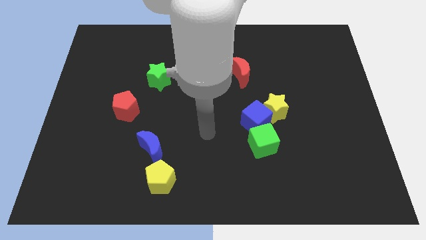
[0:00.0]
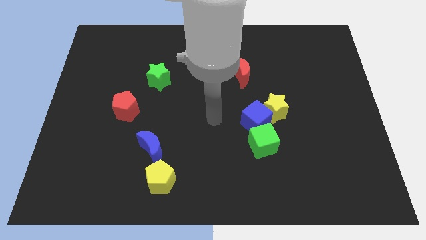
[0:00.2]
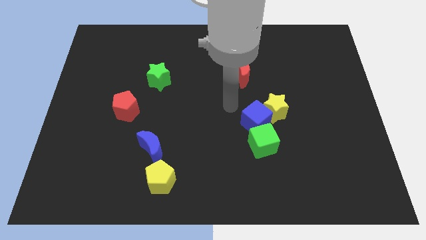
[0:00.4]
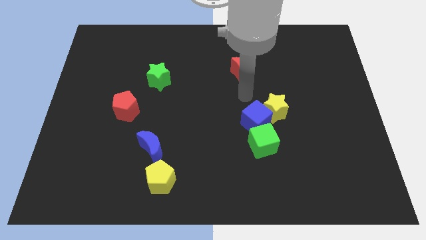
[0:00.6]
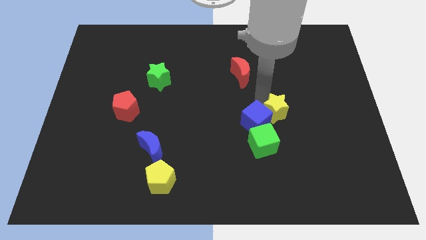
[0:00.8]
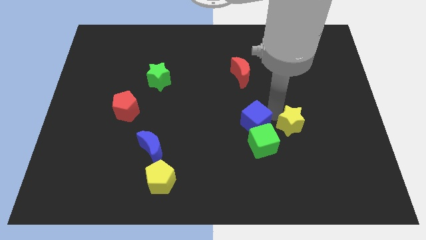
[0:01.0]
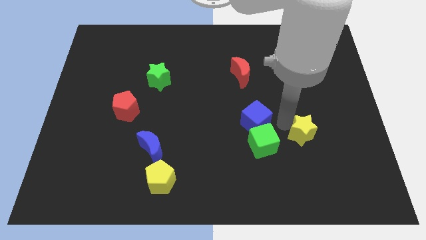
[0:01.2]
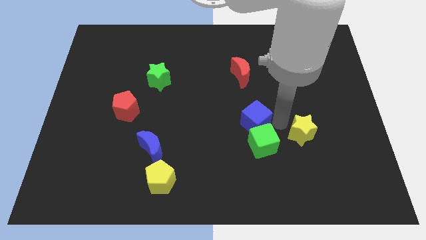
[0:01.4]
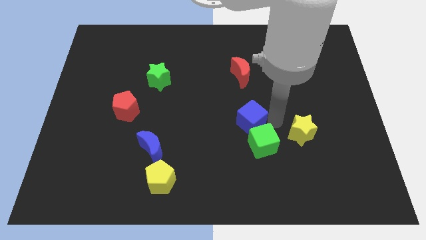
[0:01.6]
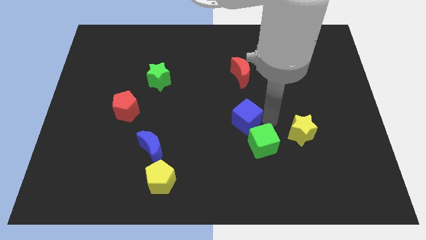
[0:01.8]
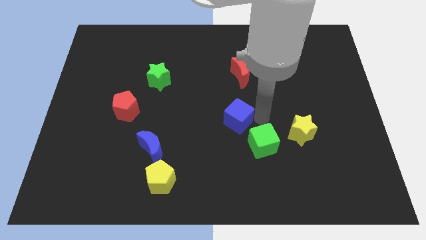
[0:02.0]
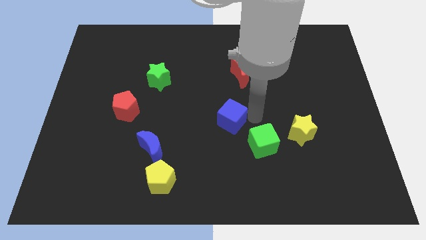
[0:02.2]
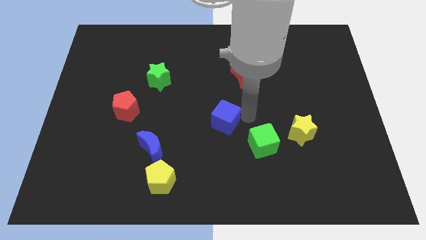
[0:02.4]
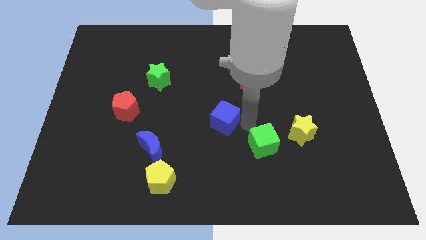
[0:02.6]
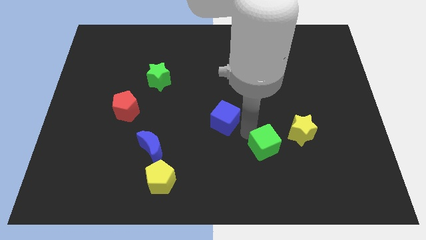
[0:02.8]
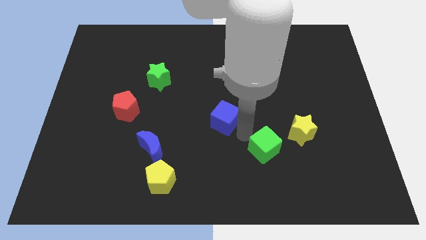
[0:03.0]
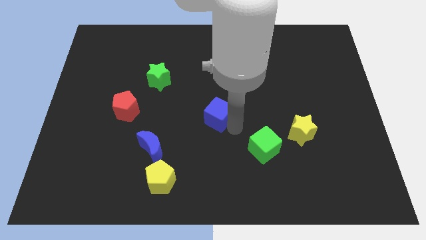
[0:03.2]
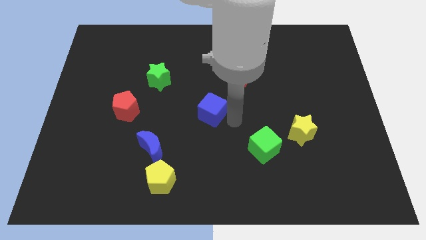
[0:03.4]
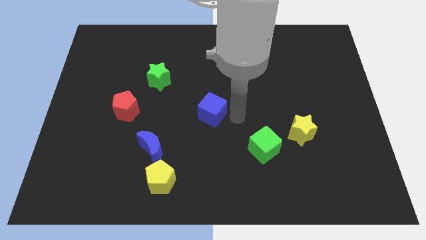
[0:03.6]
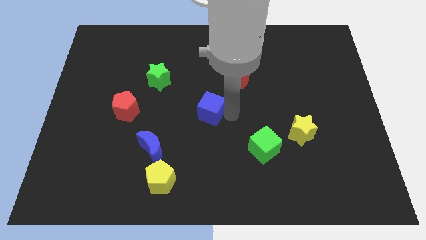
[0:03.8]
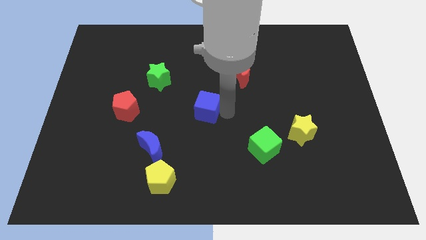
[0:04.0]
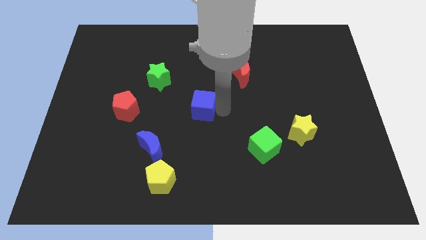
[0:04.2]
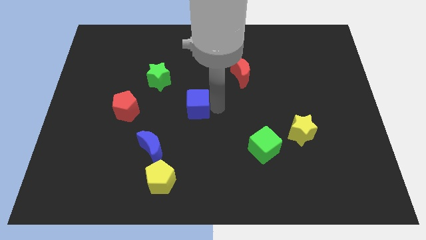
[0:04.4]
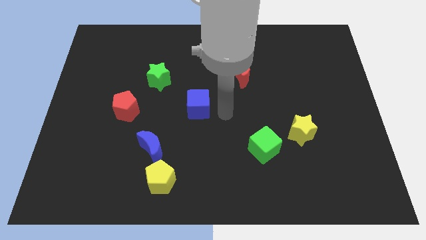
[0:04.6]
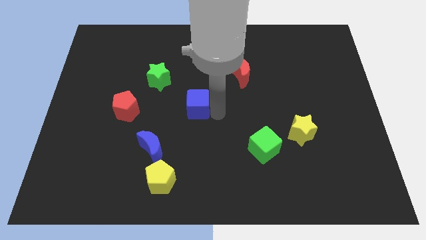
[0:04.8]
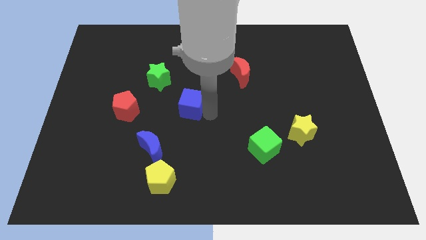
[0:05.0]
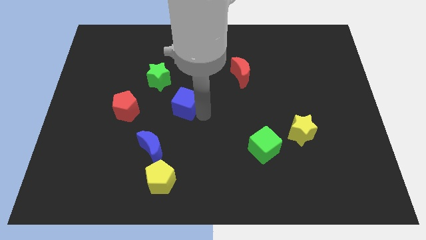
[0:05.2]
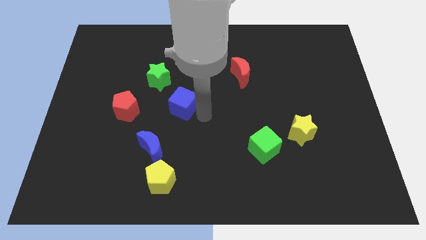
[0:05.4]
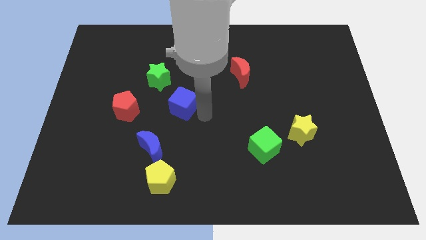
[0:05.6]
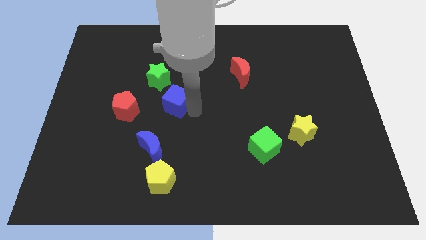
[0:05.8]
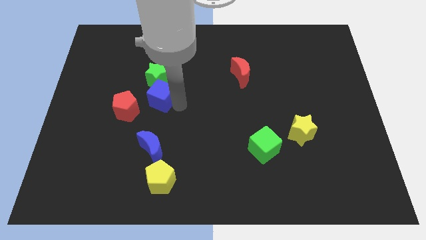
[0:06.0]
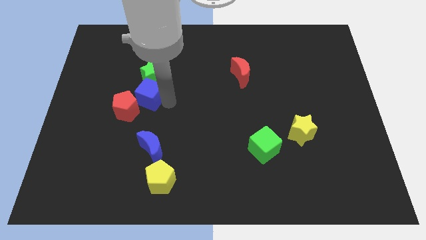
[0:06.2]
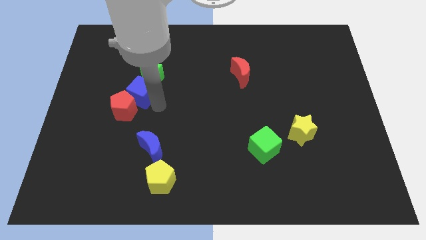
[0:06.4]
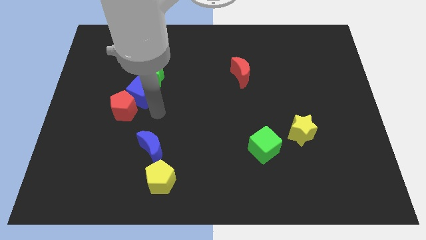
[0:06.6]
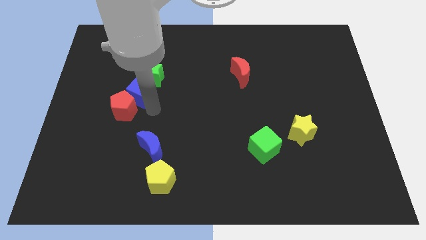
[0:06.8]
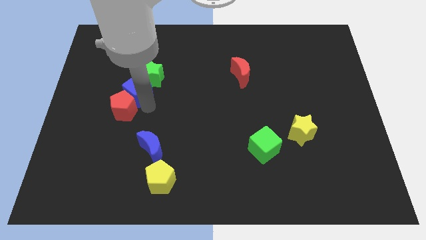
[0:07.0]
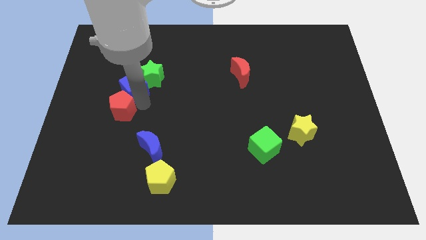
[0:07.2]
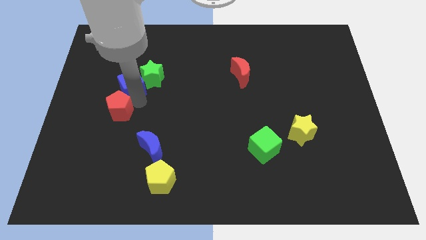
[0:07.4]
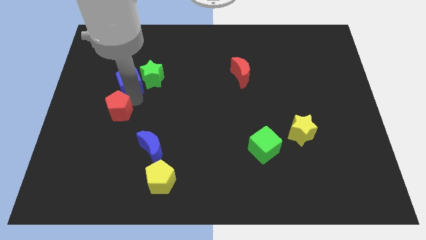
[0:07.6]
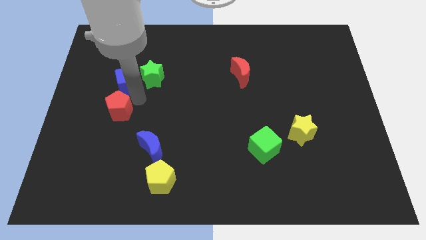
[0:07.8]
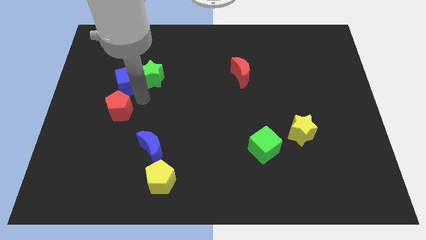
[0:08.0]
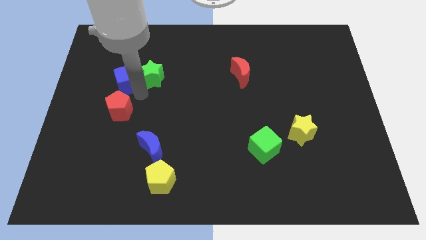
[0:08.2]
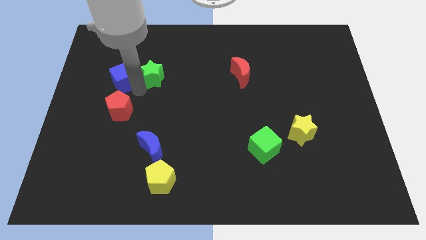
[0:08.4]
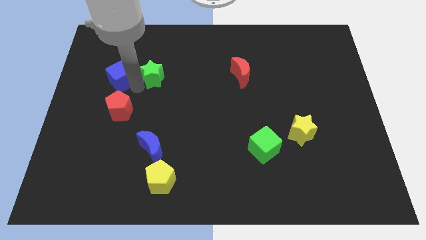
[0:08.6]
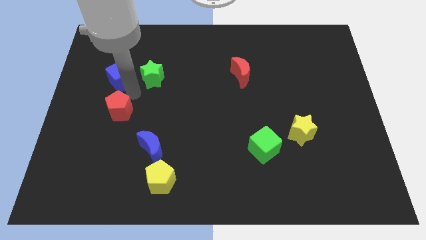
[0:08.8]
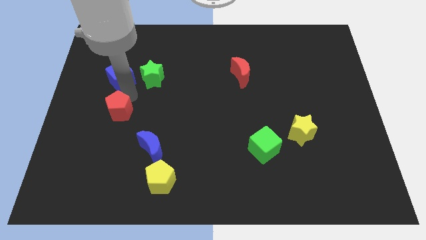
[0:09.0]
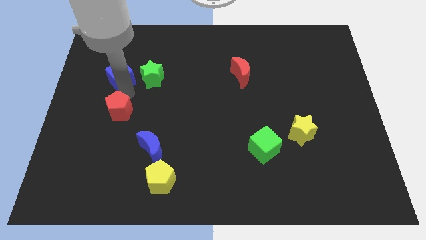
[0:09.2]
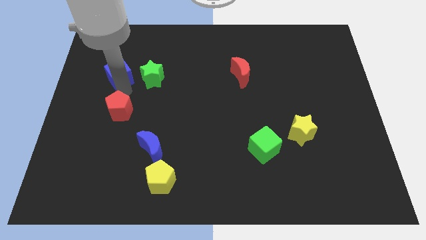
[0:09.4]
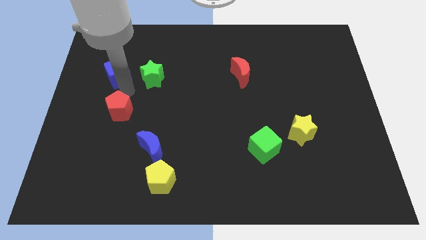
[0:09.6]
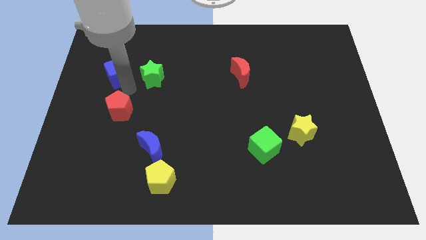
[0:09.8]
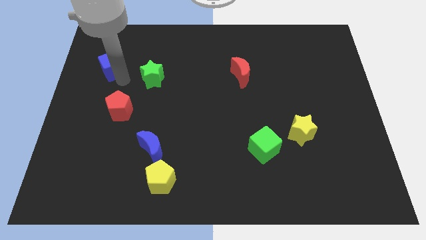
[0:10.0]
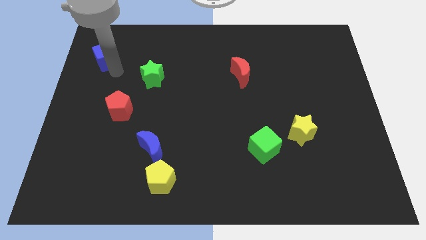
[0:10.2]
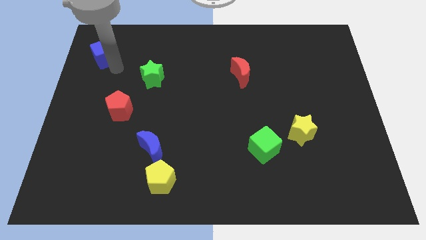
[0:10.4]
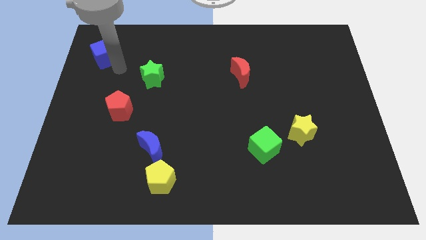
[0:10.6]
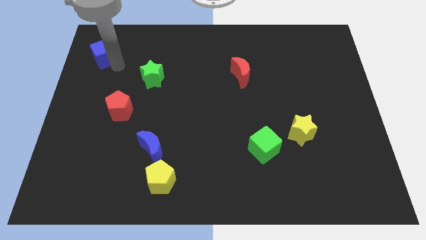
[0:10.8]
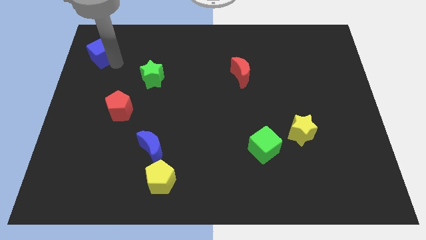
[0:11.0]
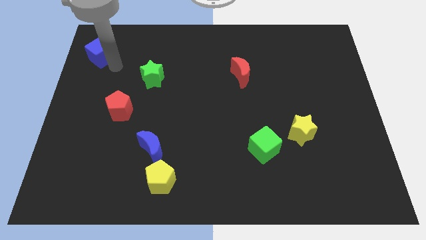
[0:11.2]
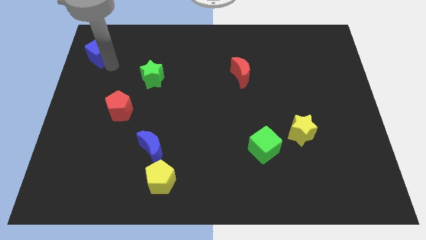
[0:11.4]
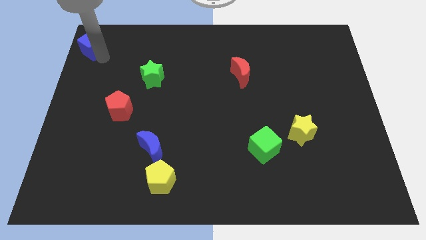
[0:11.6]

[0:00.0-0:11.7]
push the blue cube to the upper left corner
